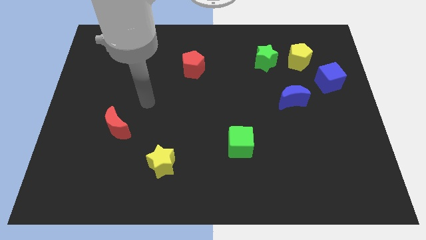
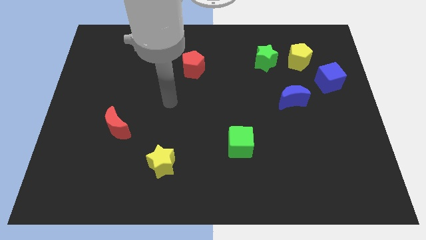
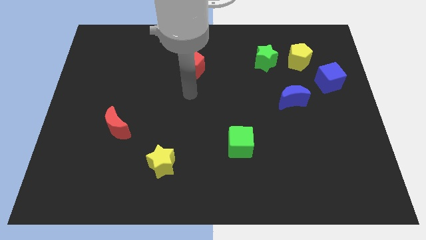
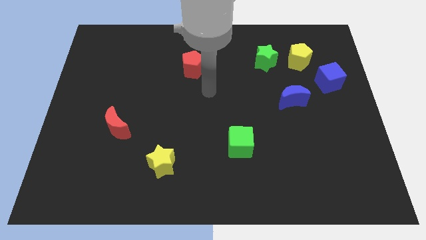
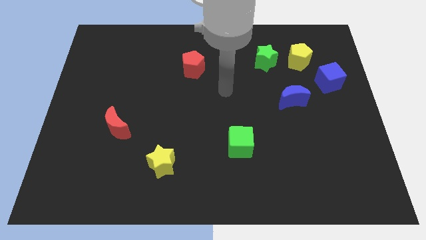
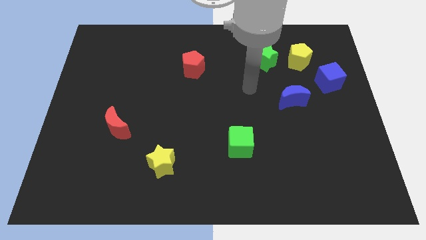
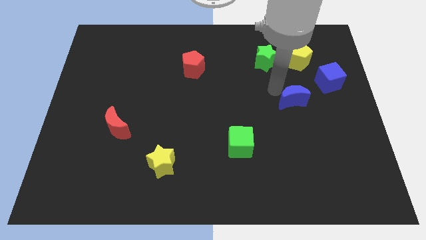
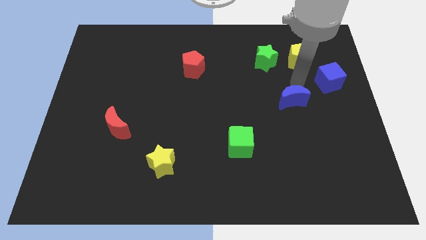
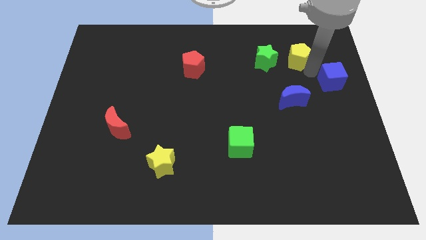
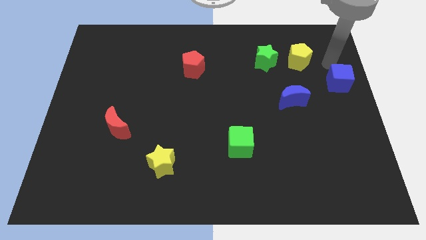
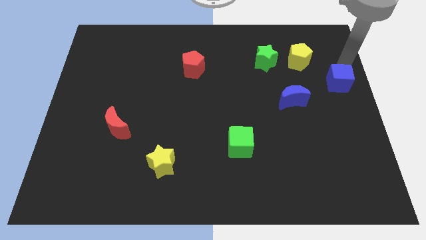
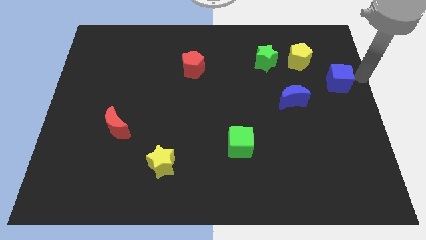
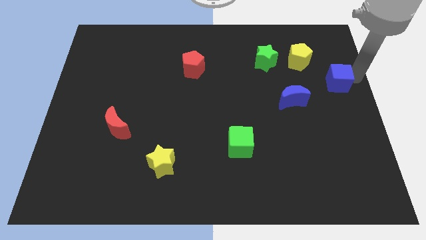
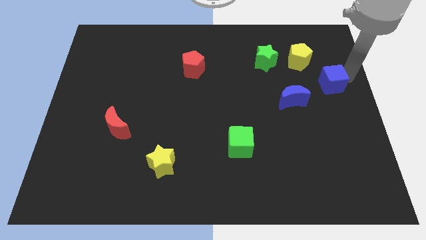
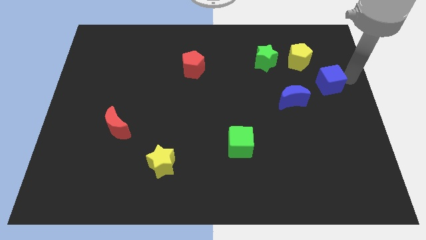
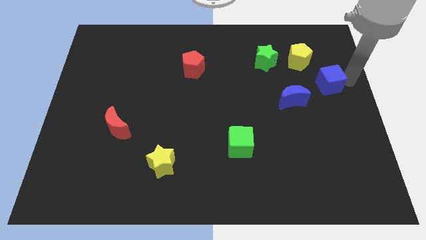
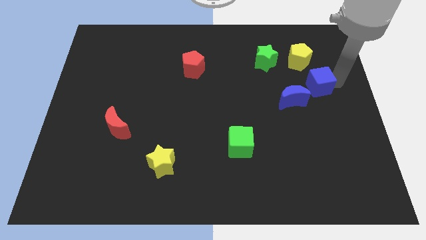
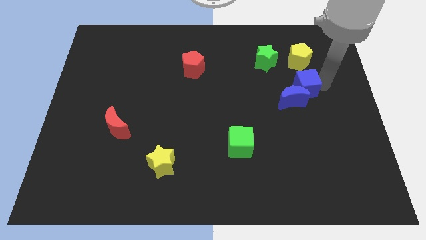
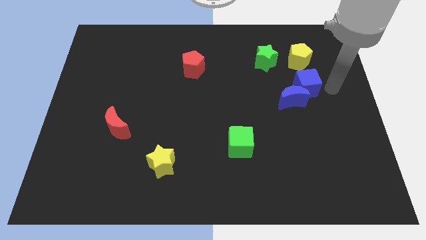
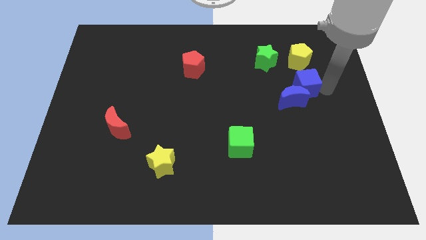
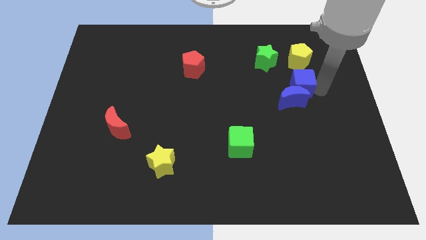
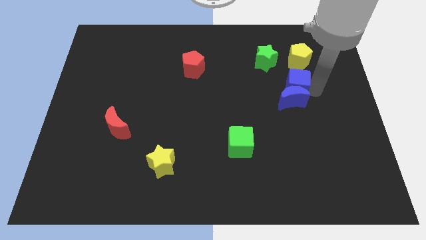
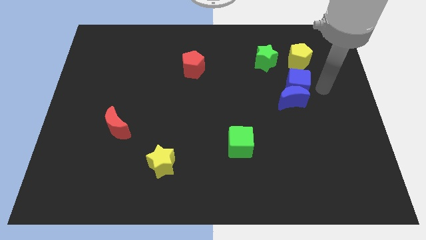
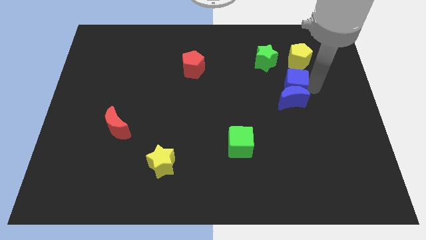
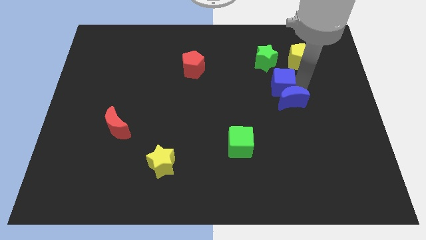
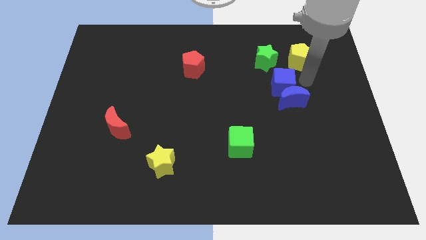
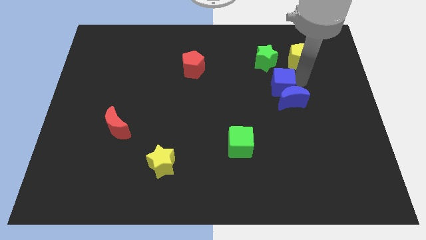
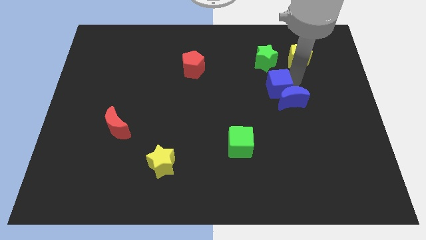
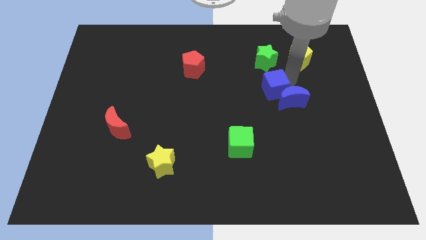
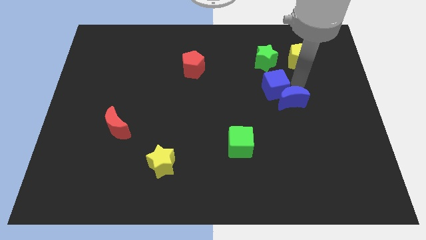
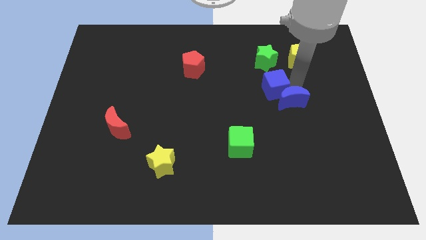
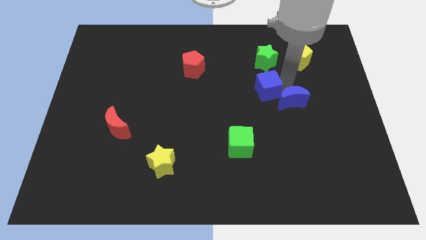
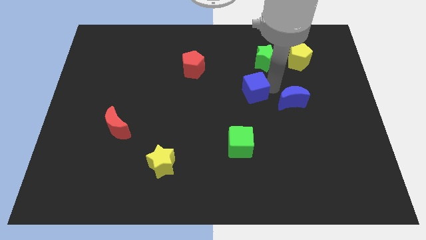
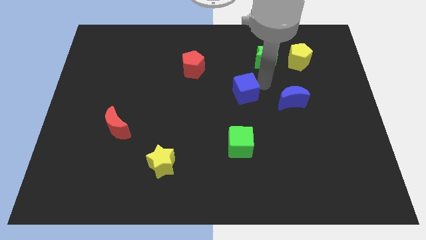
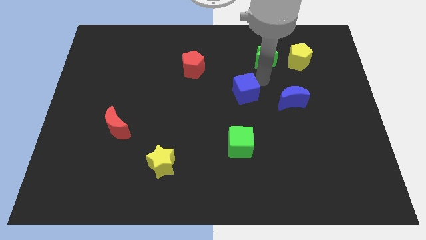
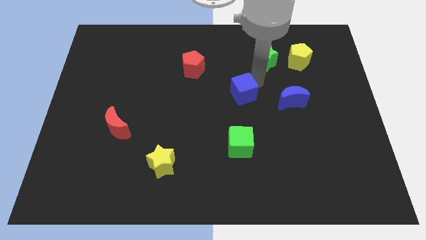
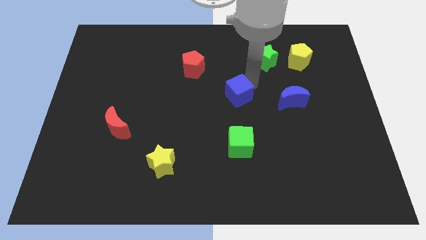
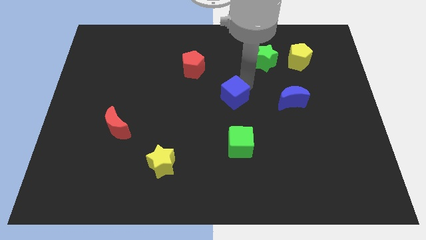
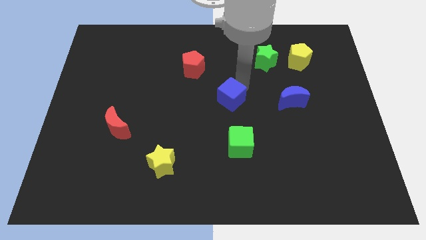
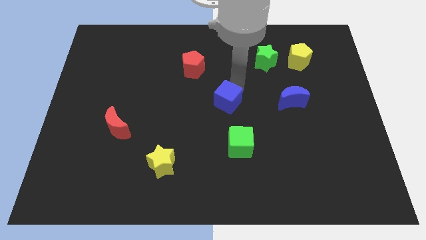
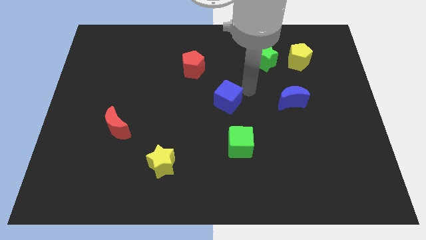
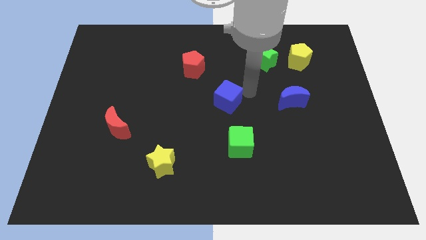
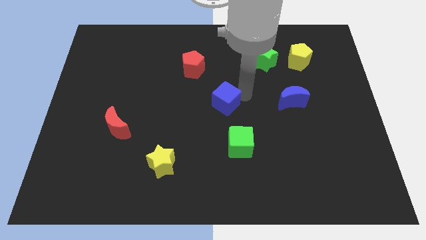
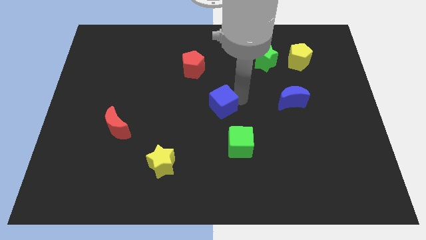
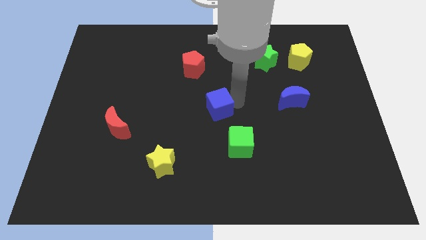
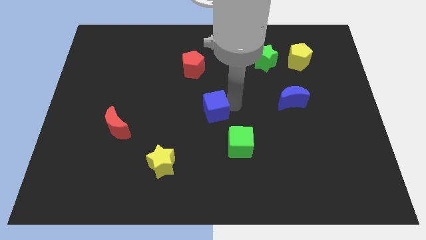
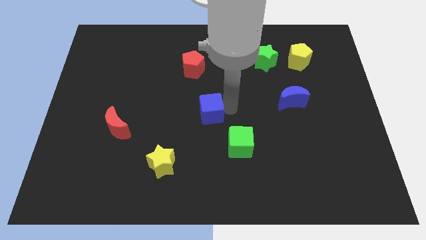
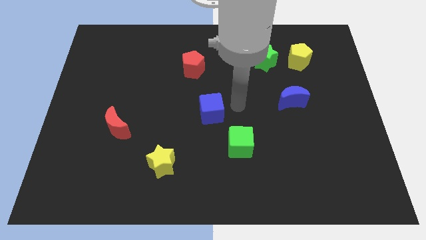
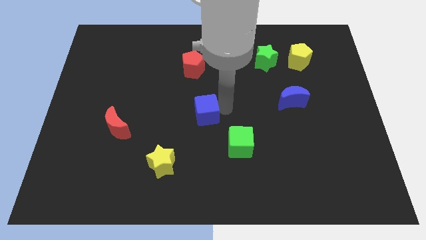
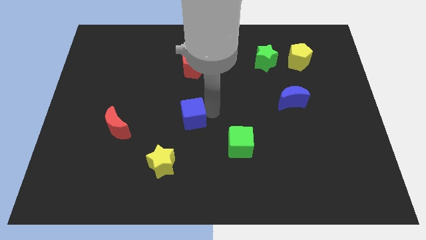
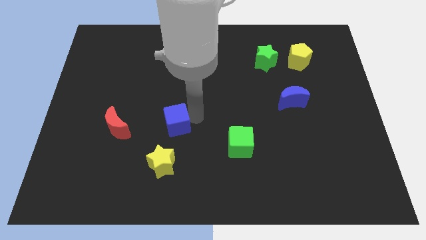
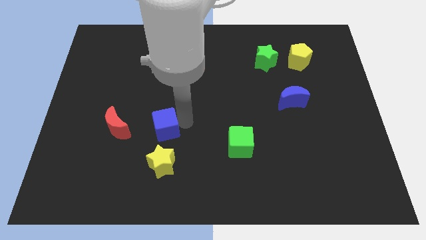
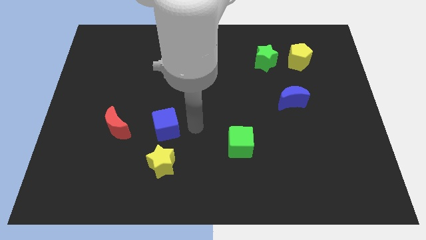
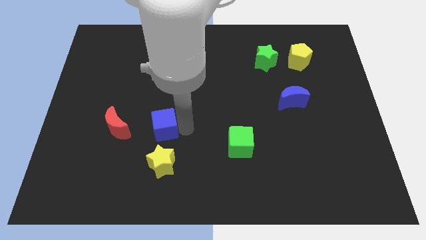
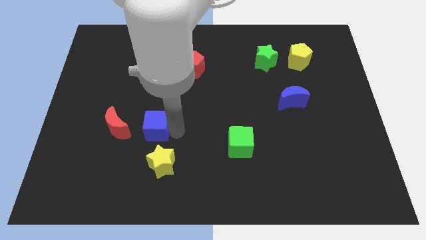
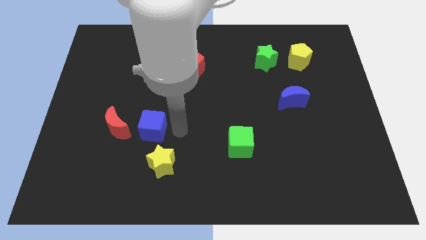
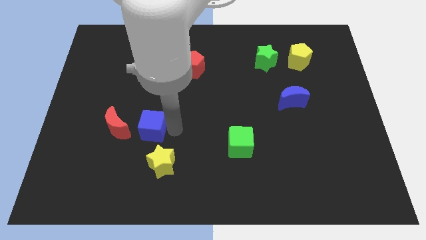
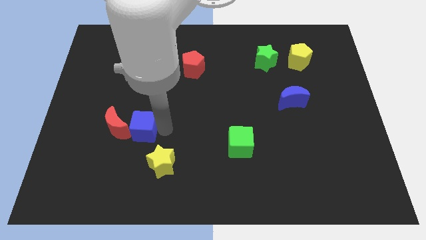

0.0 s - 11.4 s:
push the blue cube close to the red moon

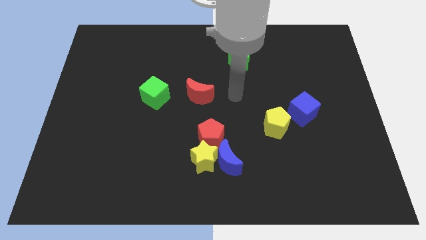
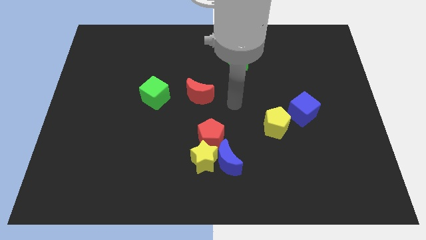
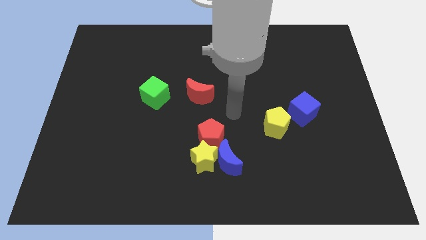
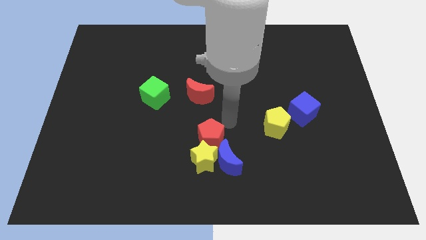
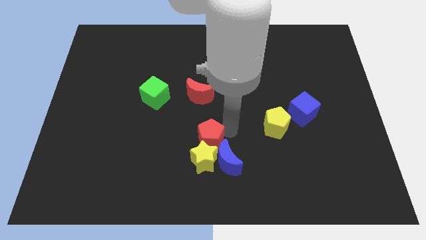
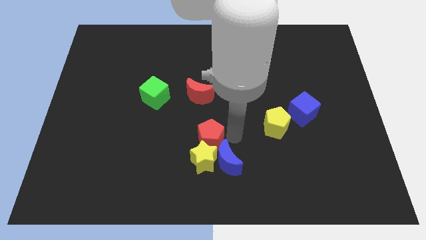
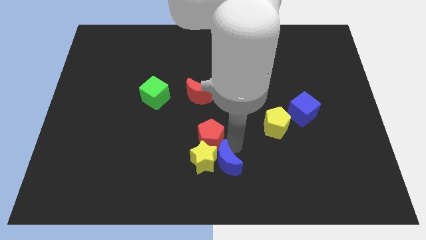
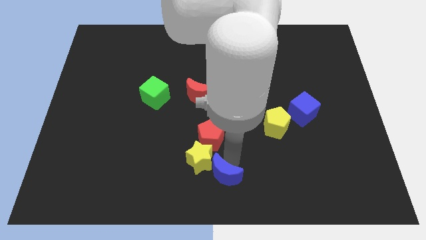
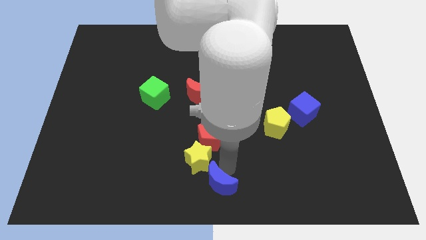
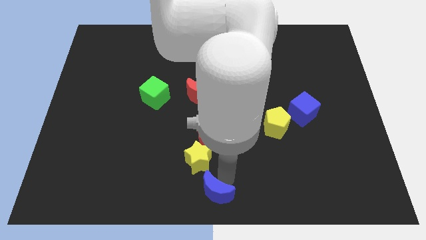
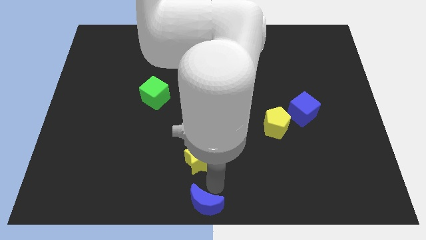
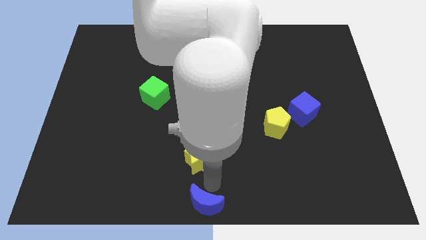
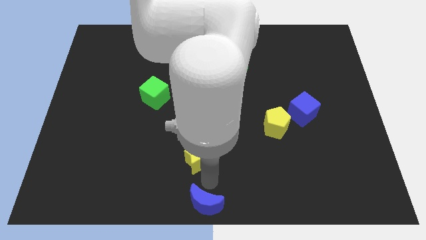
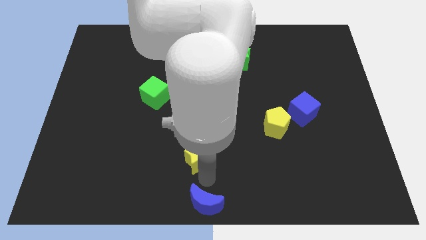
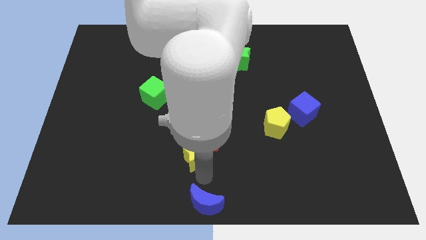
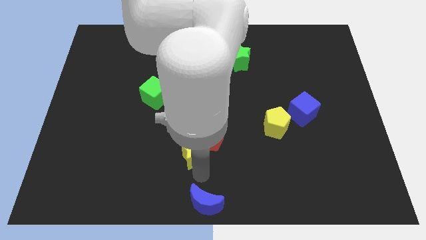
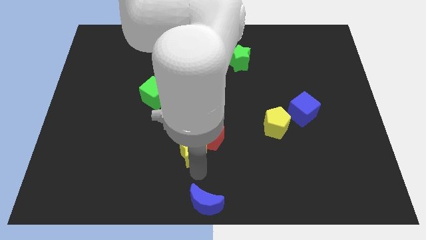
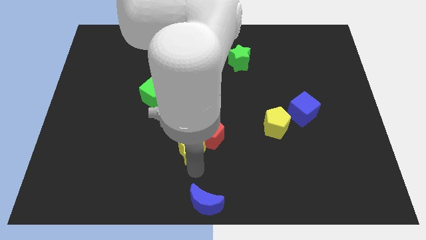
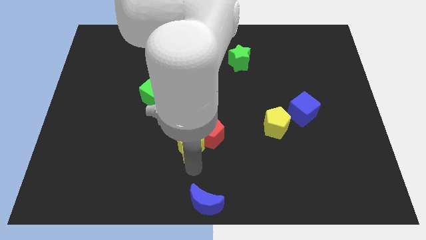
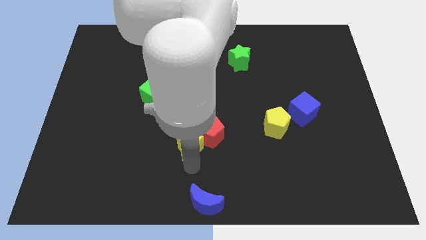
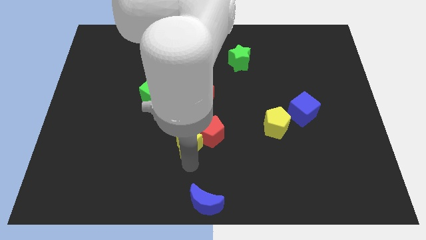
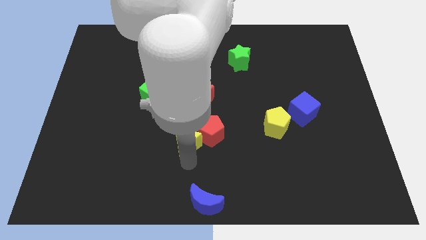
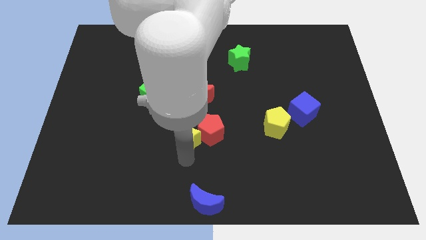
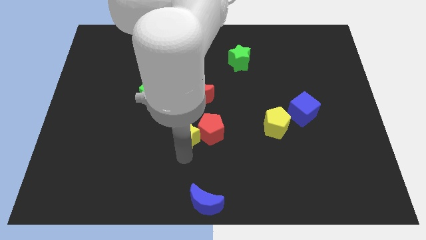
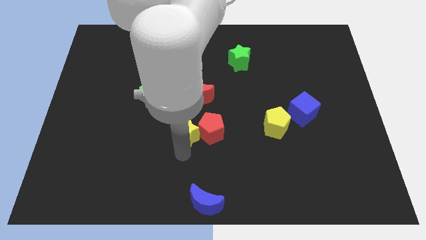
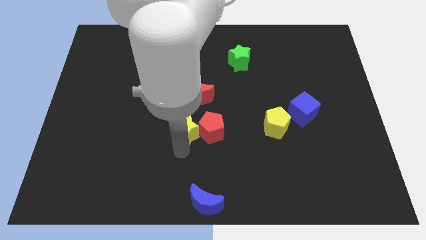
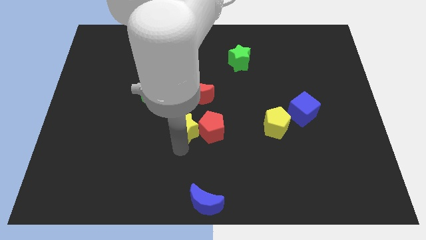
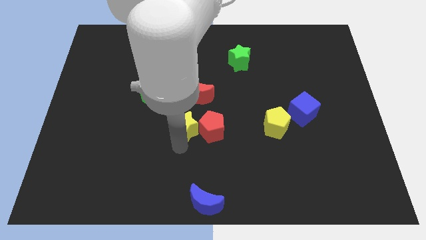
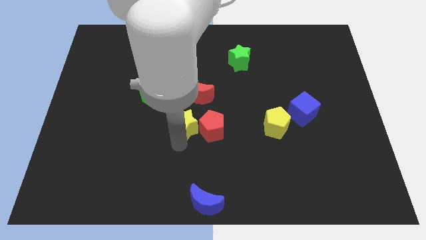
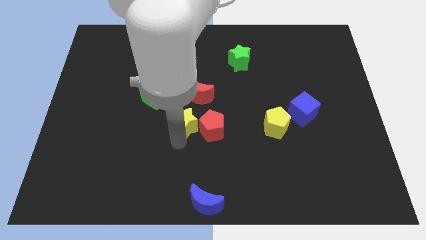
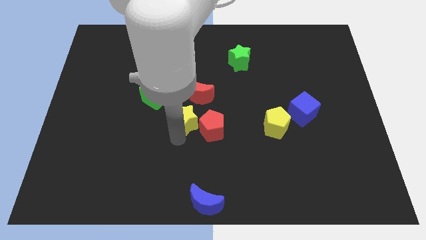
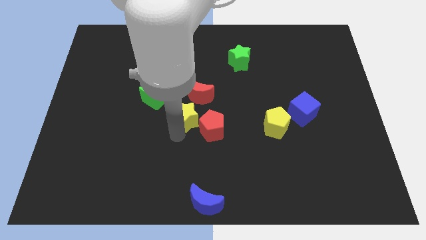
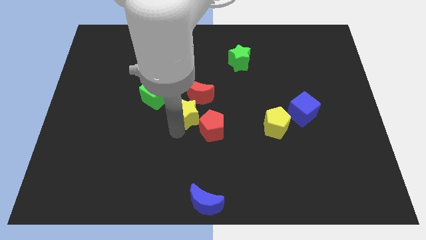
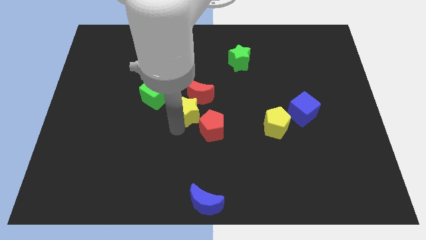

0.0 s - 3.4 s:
slide the yellow star to the red moon
